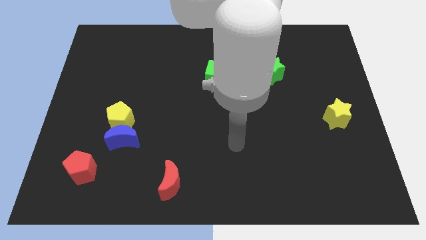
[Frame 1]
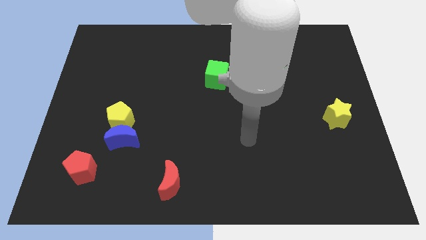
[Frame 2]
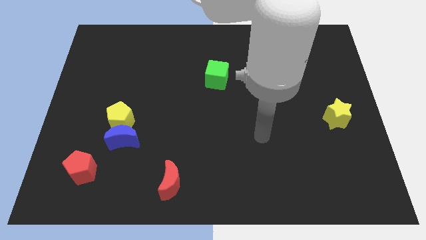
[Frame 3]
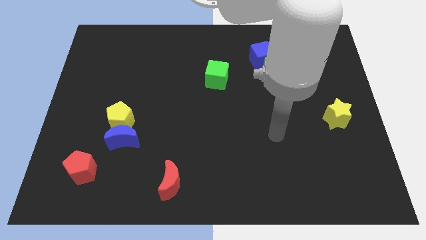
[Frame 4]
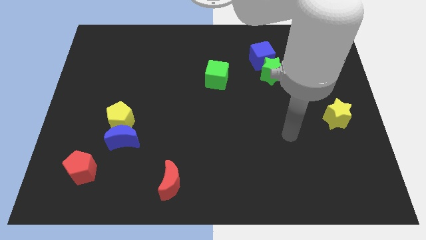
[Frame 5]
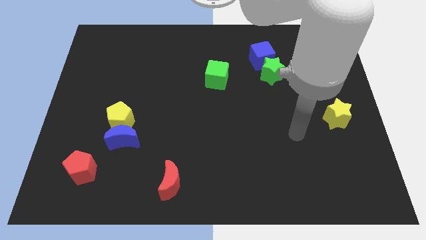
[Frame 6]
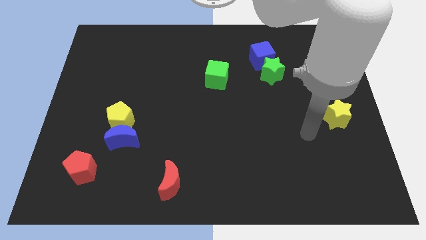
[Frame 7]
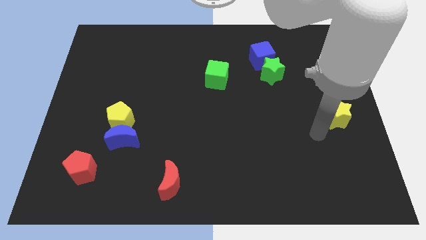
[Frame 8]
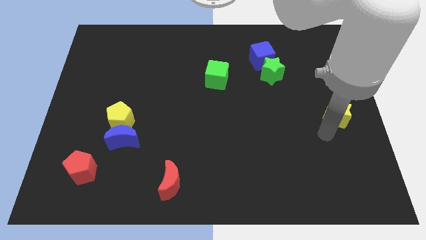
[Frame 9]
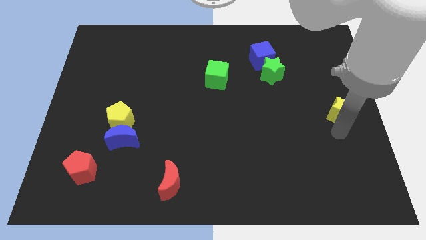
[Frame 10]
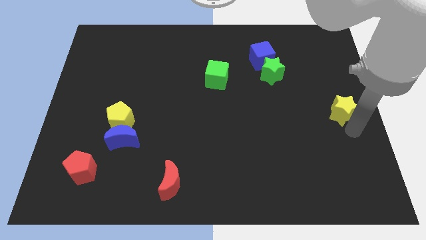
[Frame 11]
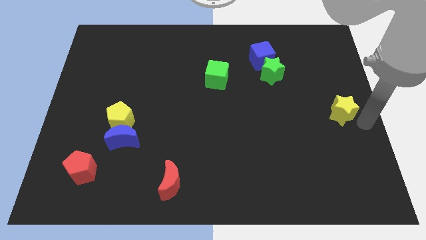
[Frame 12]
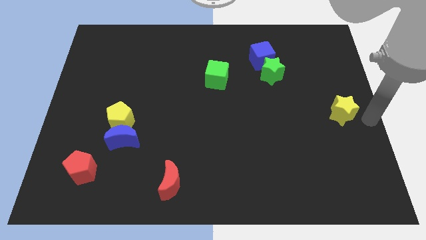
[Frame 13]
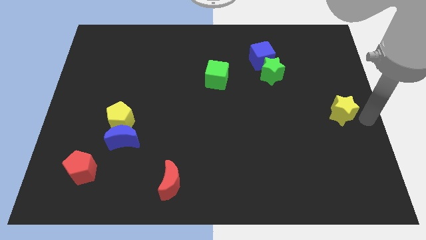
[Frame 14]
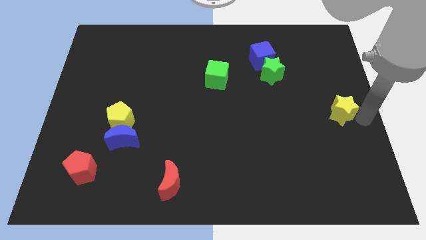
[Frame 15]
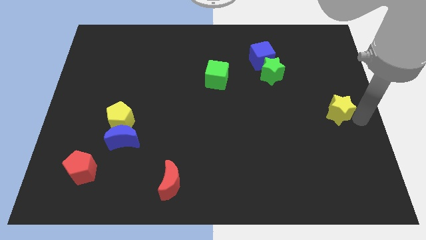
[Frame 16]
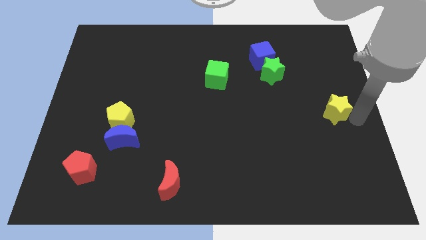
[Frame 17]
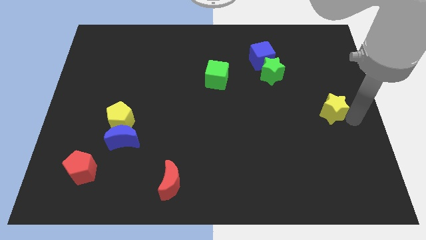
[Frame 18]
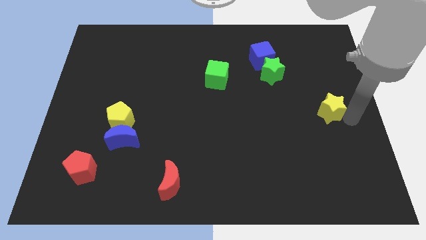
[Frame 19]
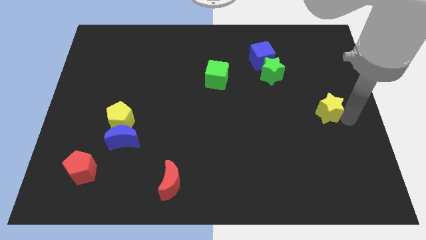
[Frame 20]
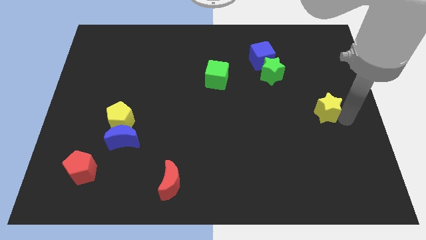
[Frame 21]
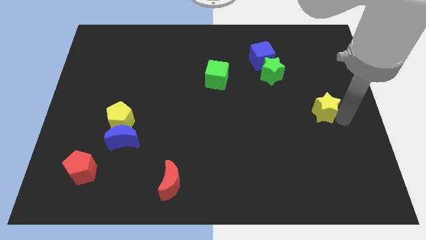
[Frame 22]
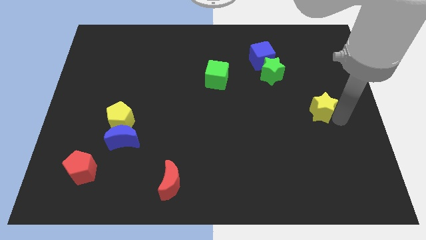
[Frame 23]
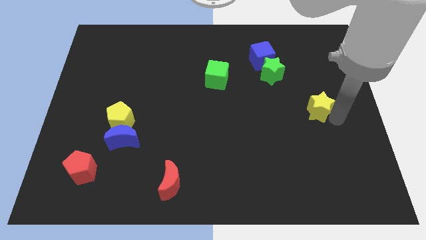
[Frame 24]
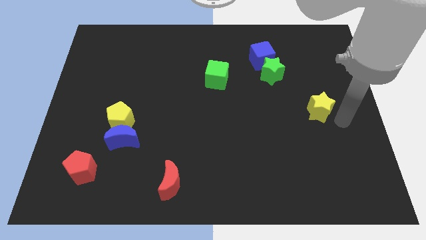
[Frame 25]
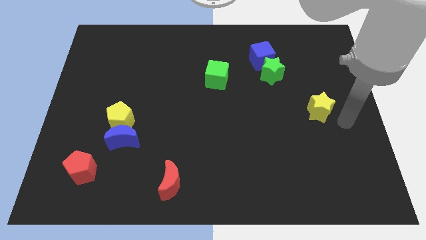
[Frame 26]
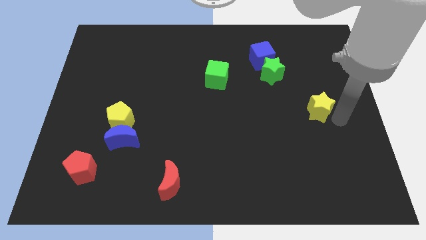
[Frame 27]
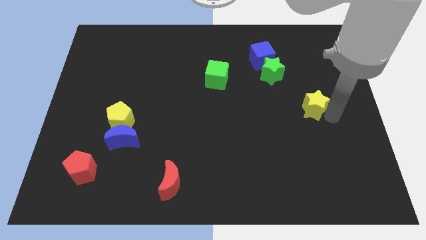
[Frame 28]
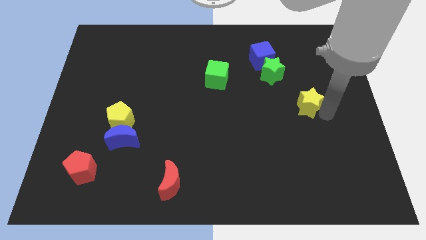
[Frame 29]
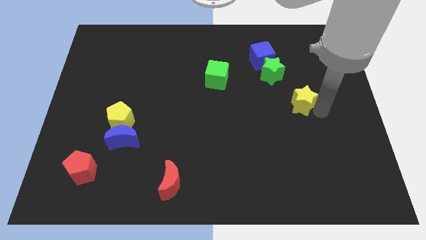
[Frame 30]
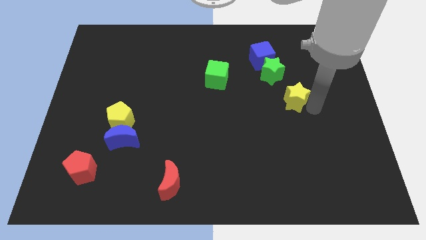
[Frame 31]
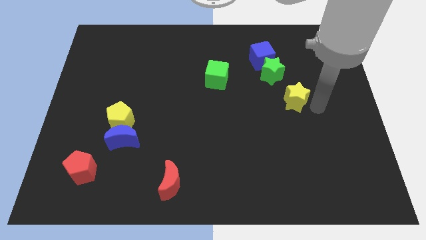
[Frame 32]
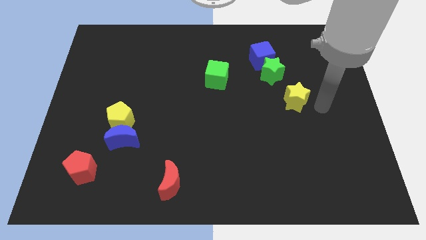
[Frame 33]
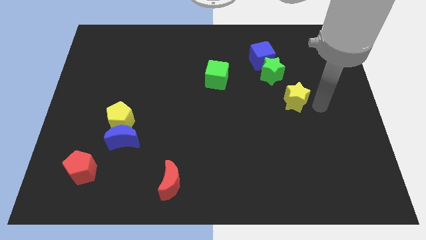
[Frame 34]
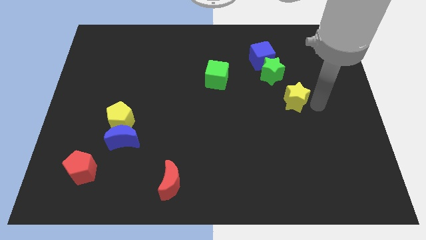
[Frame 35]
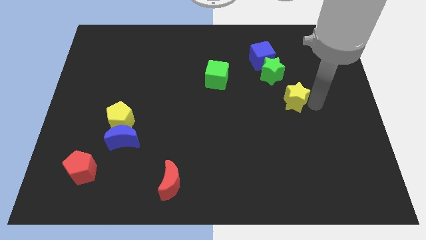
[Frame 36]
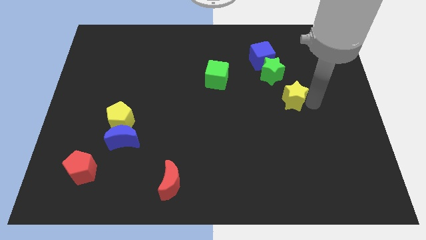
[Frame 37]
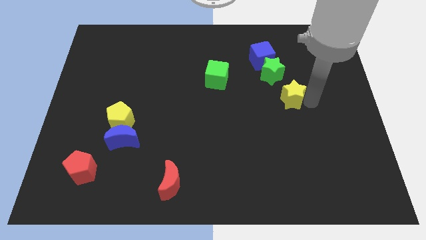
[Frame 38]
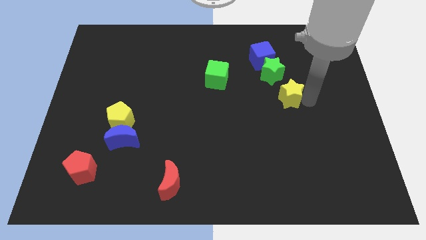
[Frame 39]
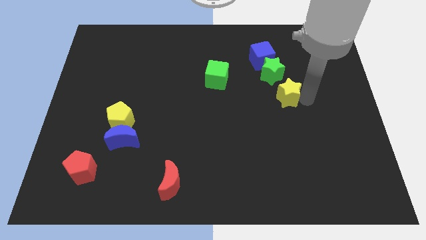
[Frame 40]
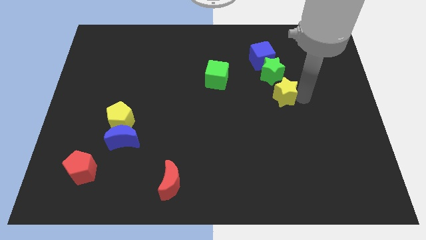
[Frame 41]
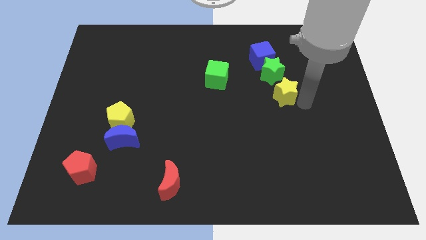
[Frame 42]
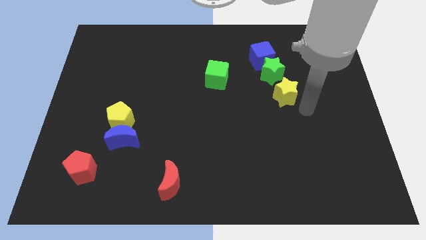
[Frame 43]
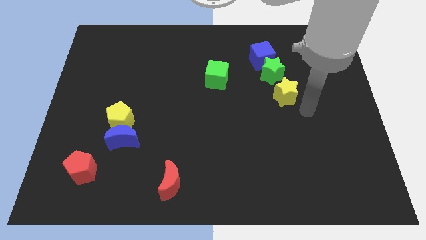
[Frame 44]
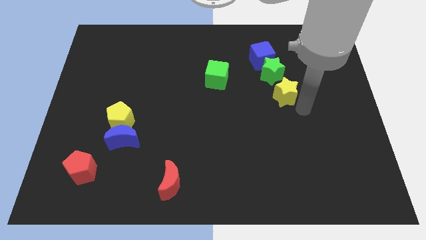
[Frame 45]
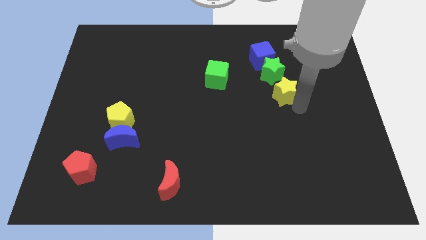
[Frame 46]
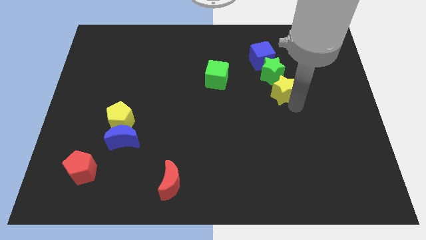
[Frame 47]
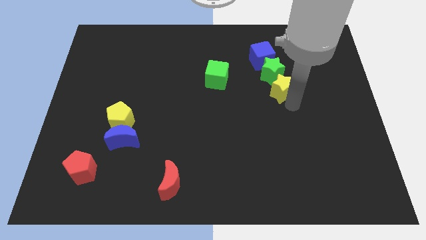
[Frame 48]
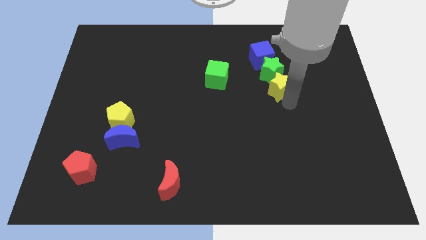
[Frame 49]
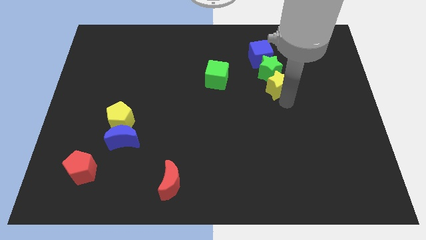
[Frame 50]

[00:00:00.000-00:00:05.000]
slide the yellow star to the right of the green cube

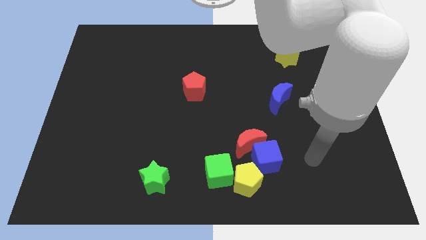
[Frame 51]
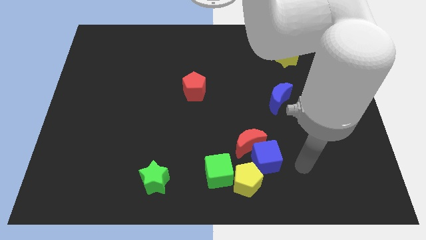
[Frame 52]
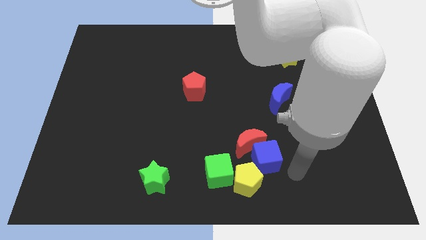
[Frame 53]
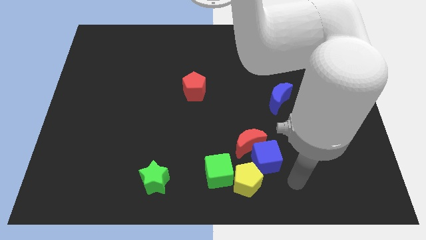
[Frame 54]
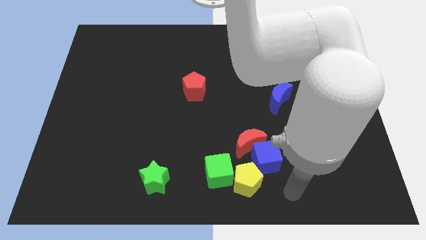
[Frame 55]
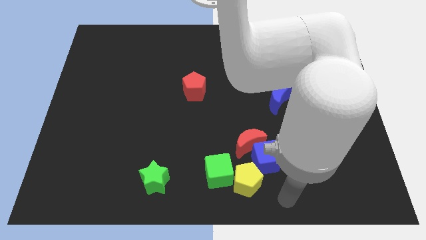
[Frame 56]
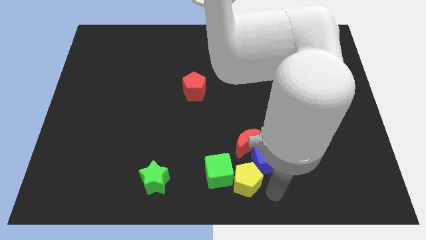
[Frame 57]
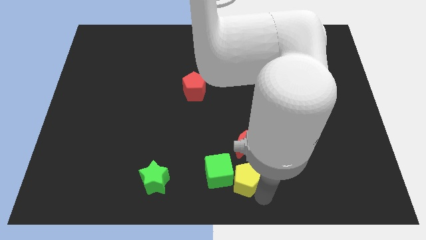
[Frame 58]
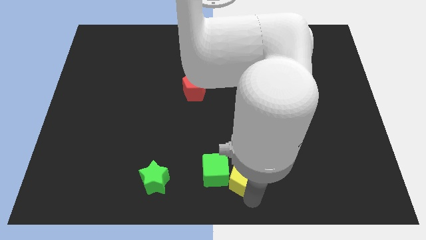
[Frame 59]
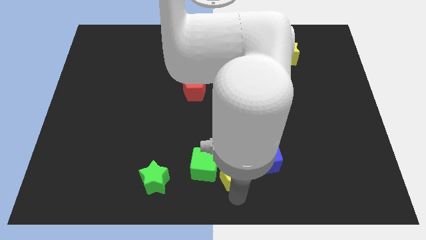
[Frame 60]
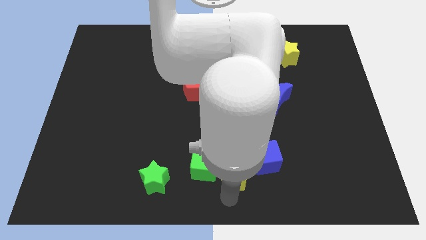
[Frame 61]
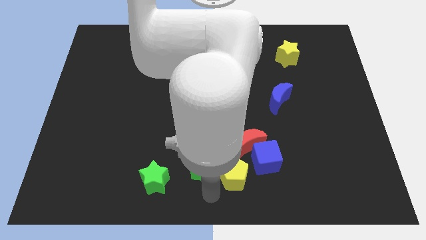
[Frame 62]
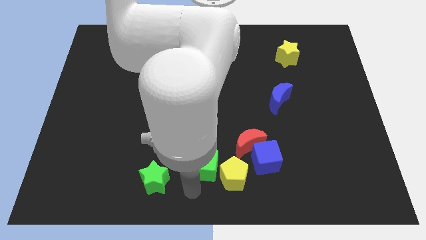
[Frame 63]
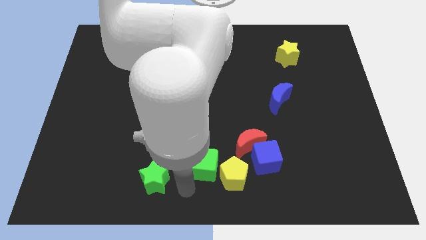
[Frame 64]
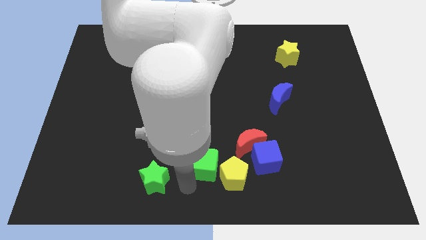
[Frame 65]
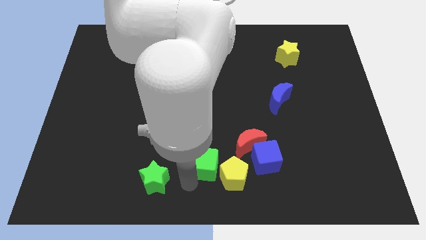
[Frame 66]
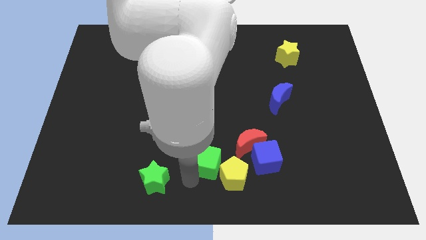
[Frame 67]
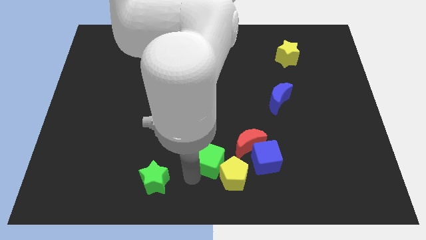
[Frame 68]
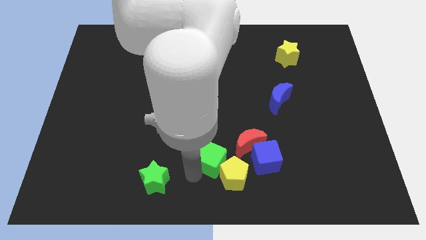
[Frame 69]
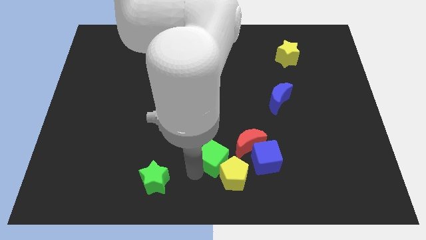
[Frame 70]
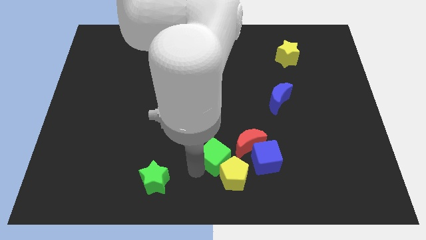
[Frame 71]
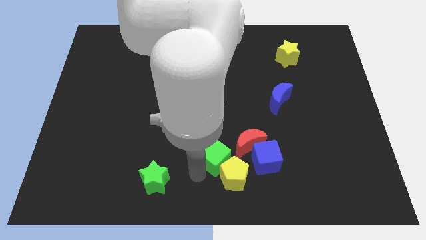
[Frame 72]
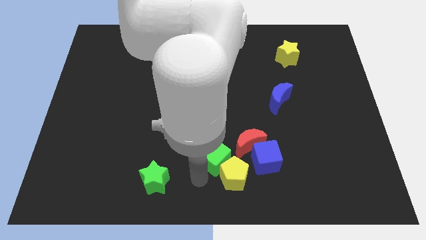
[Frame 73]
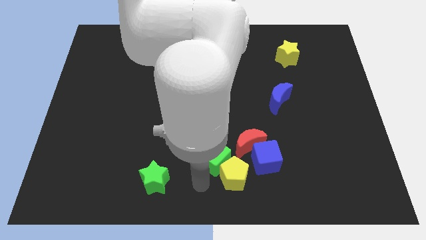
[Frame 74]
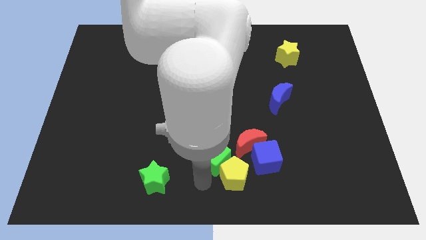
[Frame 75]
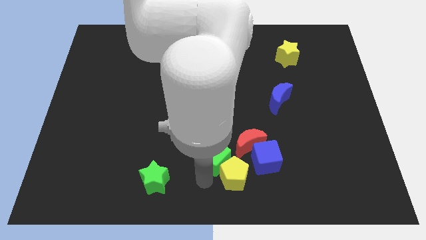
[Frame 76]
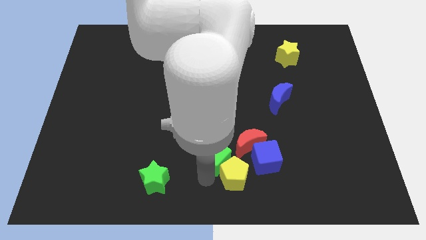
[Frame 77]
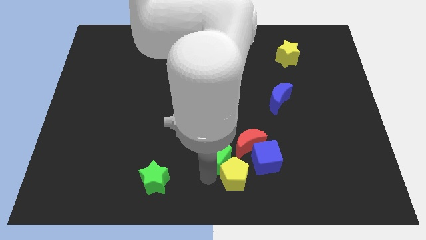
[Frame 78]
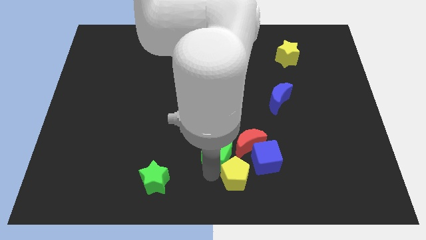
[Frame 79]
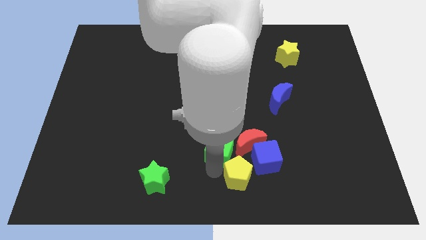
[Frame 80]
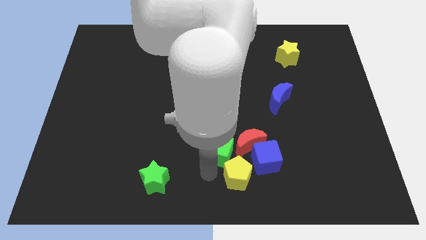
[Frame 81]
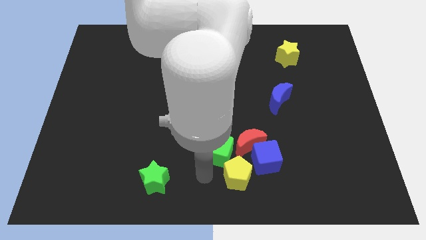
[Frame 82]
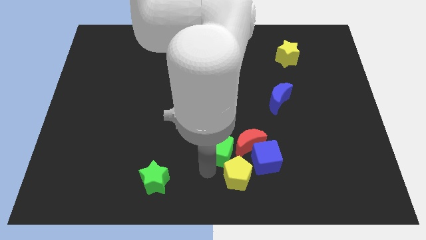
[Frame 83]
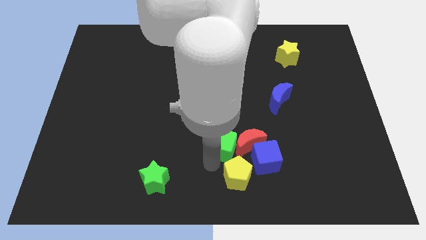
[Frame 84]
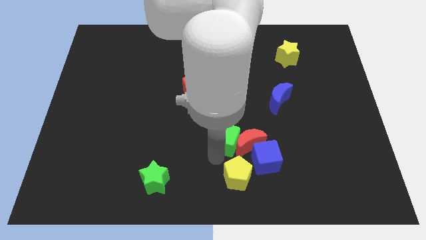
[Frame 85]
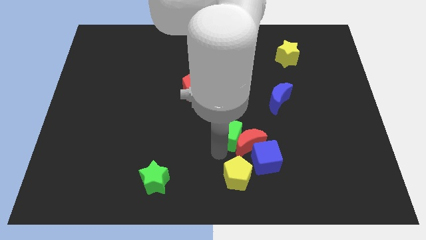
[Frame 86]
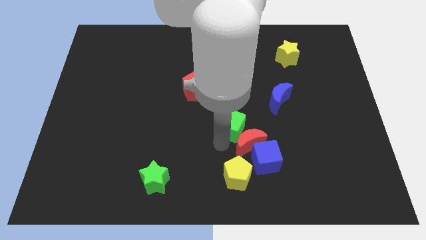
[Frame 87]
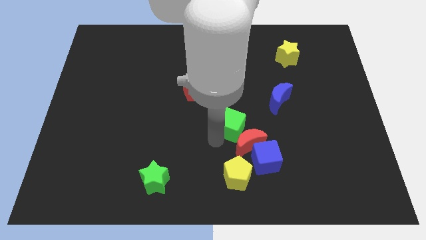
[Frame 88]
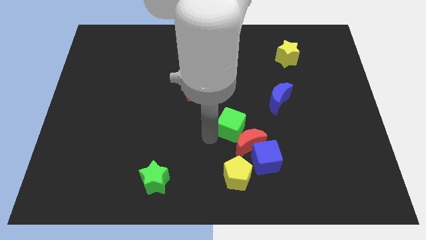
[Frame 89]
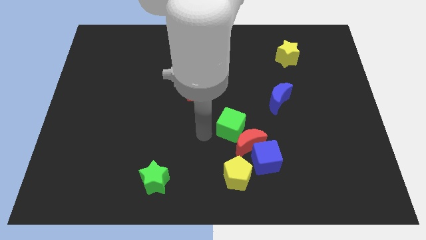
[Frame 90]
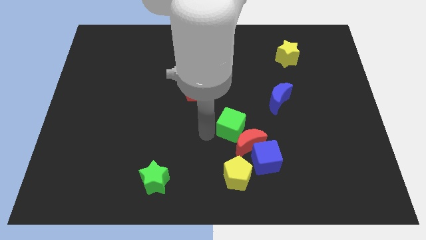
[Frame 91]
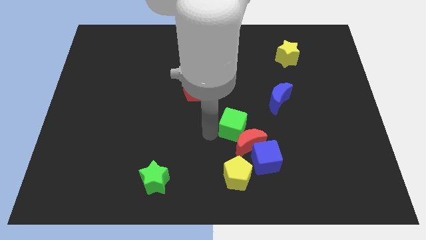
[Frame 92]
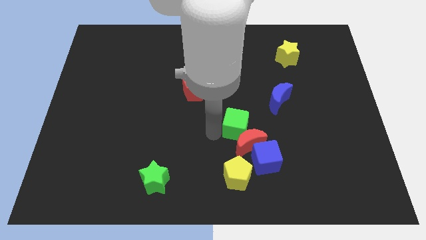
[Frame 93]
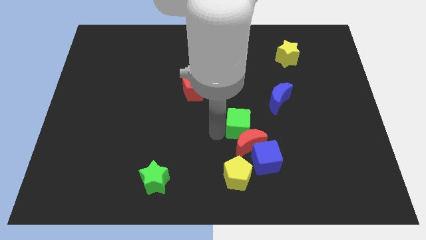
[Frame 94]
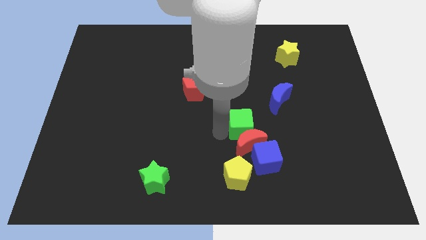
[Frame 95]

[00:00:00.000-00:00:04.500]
put the green cube to the top of the blue cube
